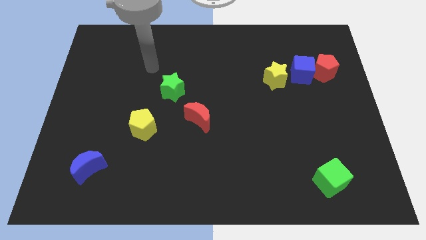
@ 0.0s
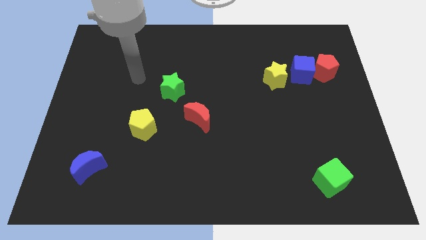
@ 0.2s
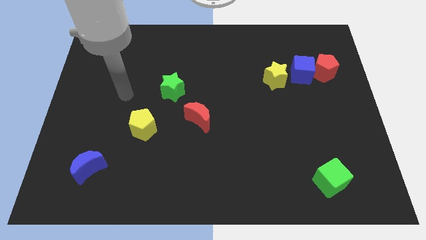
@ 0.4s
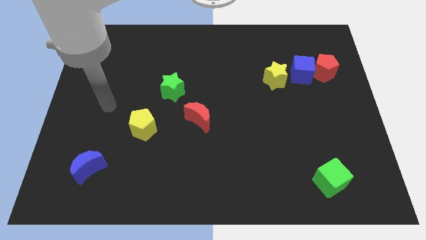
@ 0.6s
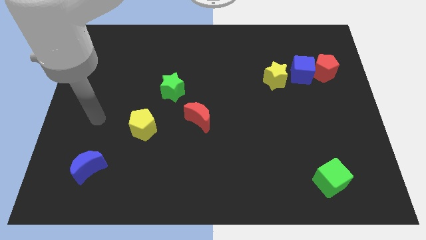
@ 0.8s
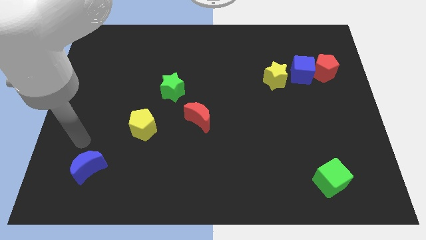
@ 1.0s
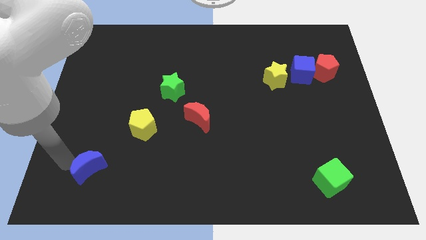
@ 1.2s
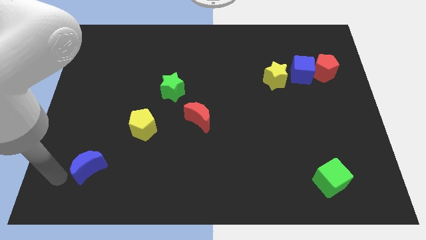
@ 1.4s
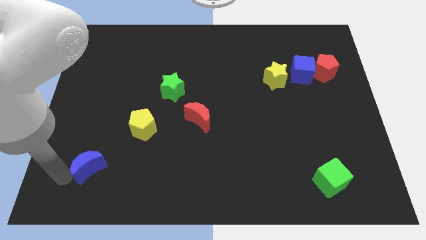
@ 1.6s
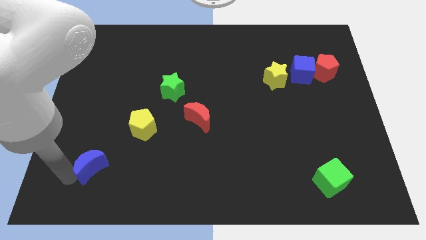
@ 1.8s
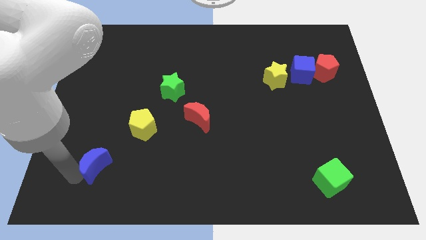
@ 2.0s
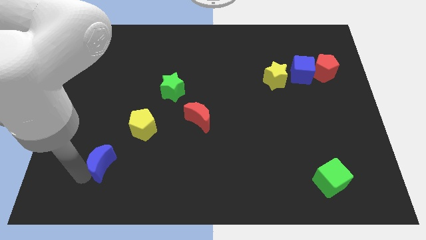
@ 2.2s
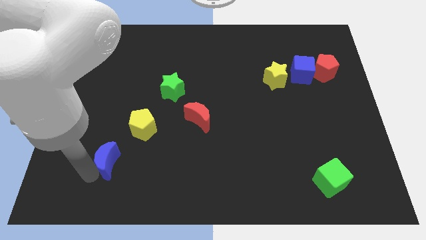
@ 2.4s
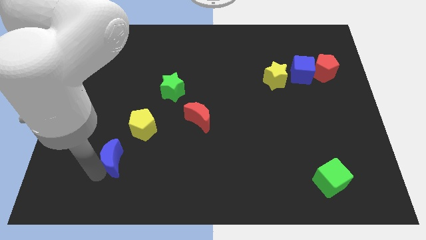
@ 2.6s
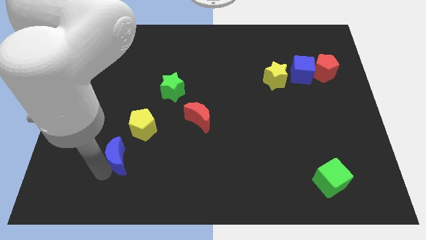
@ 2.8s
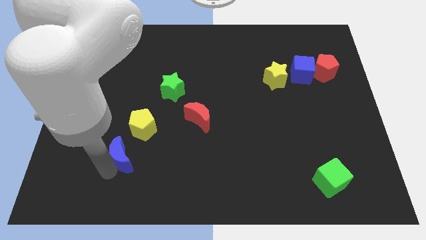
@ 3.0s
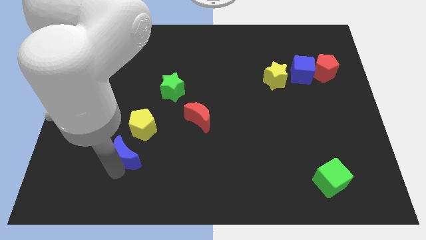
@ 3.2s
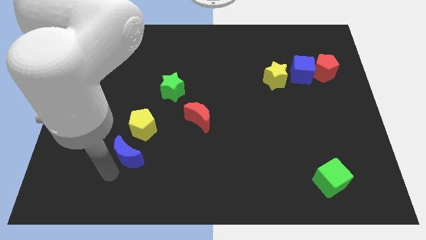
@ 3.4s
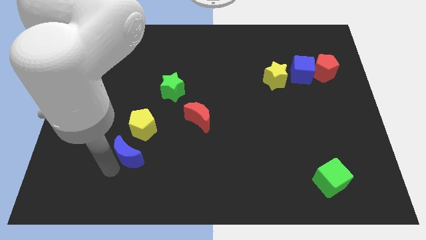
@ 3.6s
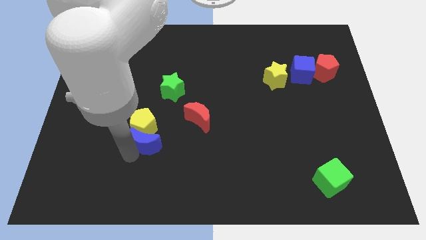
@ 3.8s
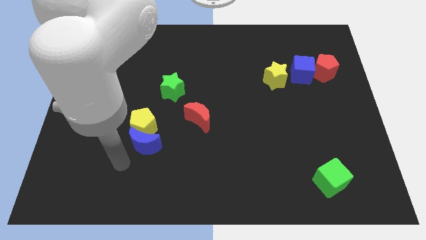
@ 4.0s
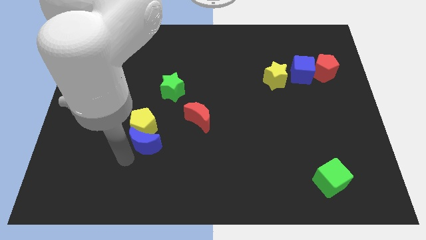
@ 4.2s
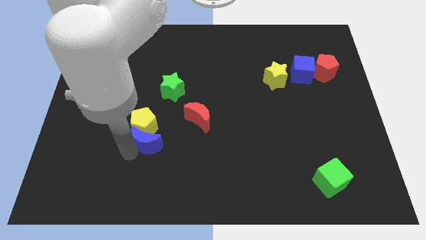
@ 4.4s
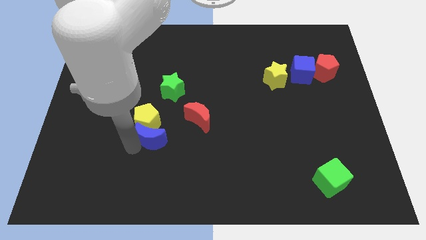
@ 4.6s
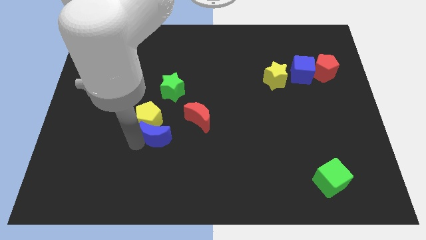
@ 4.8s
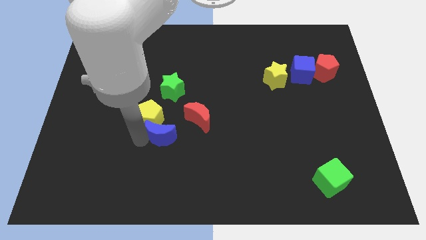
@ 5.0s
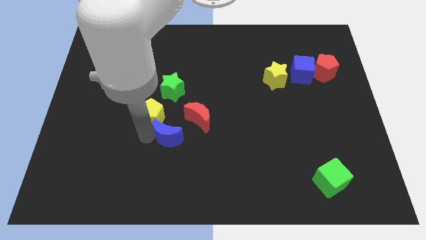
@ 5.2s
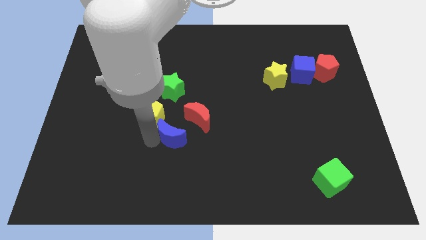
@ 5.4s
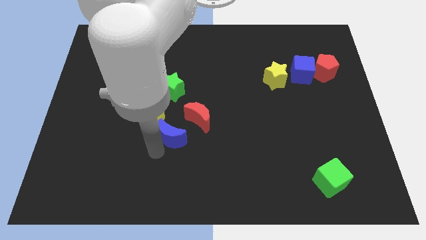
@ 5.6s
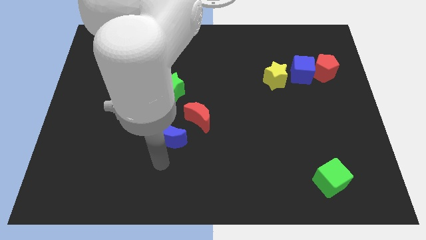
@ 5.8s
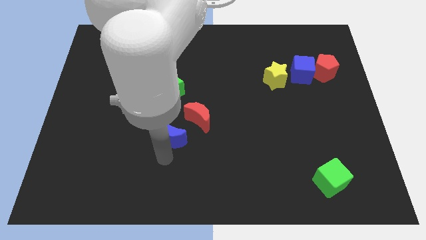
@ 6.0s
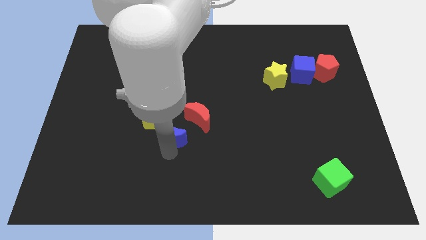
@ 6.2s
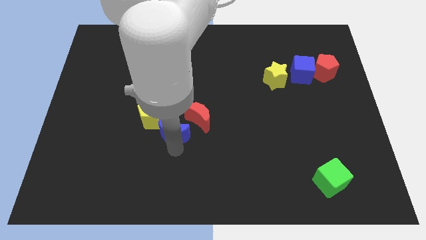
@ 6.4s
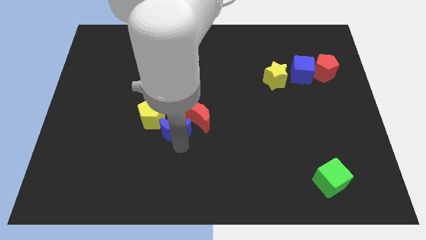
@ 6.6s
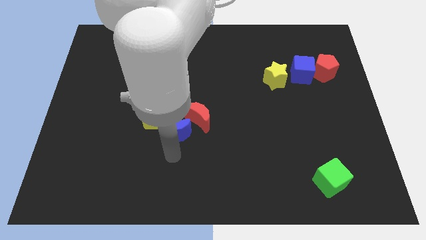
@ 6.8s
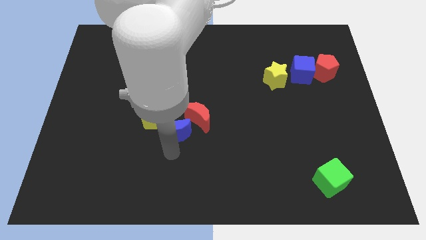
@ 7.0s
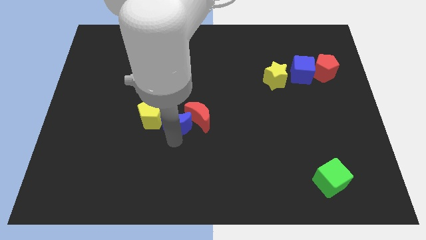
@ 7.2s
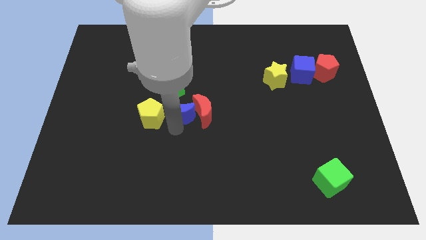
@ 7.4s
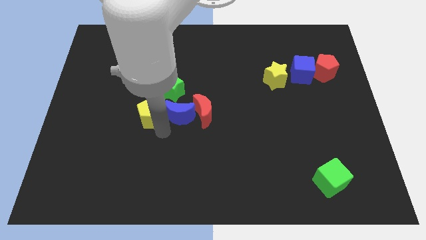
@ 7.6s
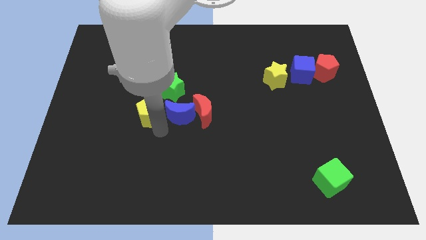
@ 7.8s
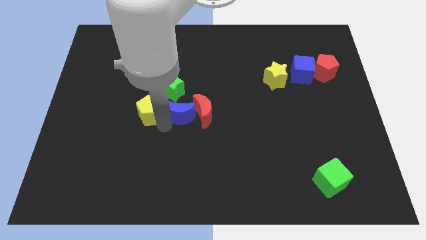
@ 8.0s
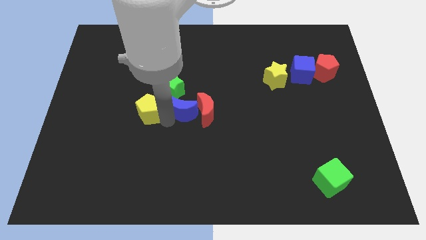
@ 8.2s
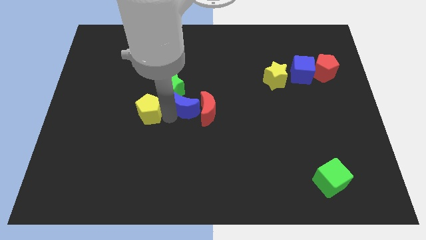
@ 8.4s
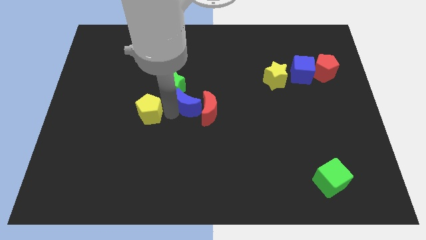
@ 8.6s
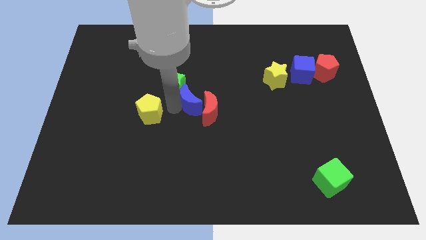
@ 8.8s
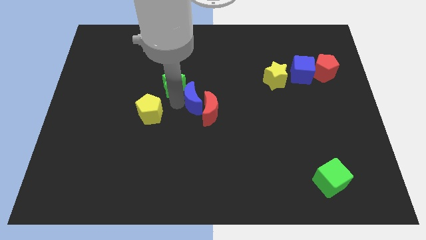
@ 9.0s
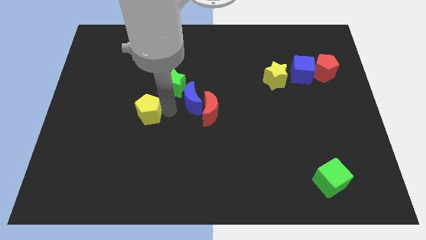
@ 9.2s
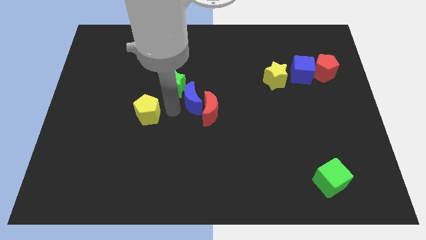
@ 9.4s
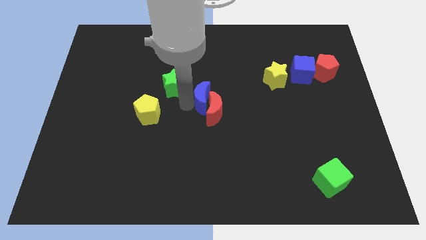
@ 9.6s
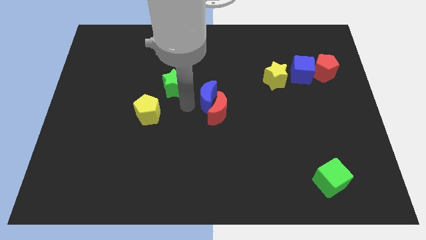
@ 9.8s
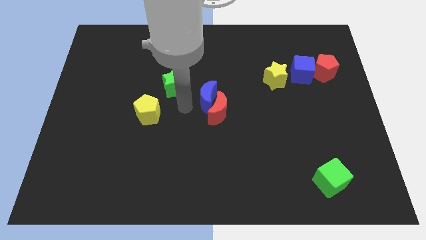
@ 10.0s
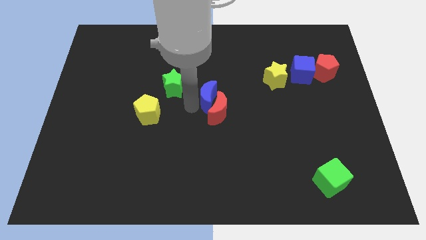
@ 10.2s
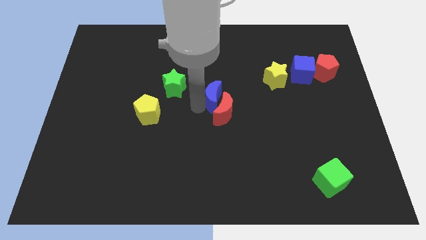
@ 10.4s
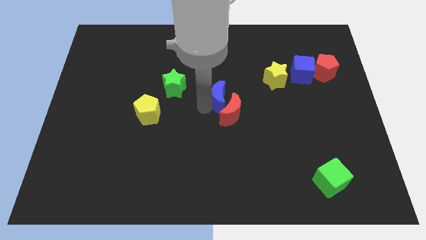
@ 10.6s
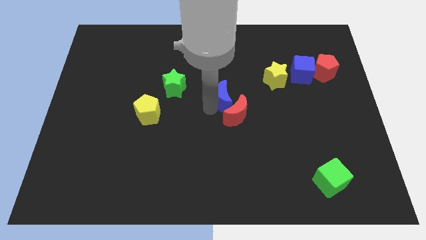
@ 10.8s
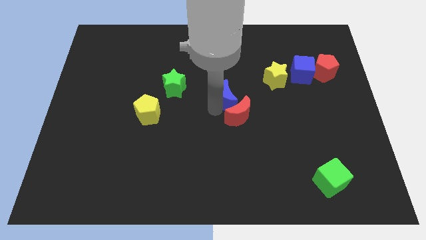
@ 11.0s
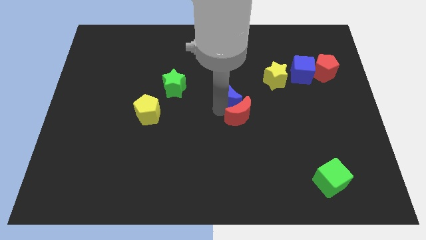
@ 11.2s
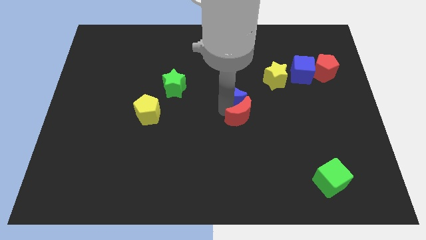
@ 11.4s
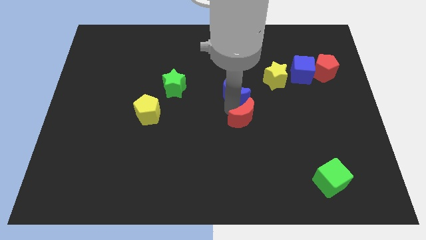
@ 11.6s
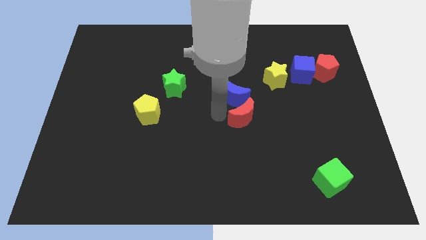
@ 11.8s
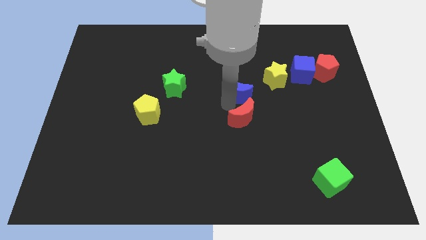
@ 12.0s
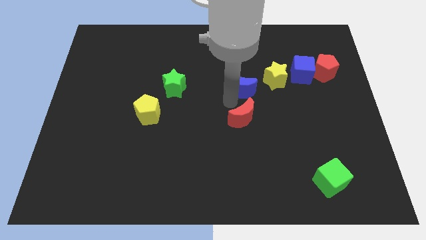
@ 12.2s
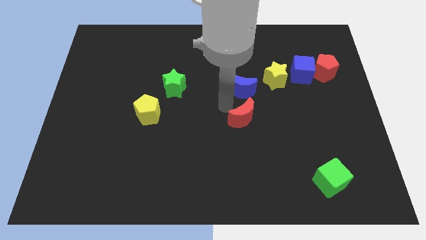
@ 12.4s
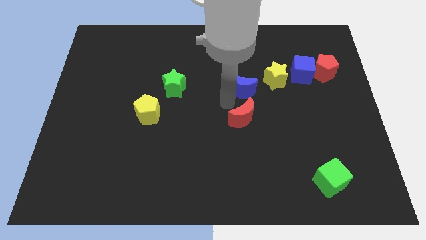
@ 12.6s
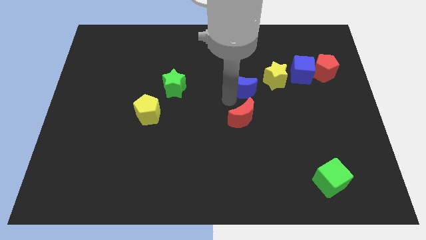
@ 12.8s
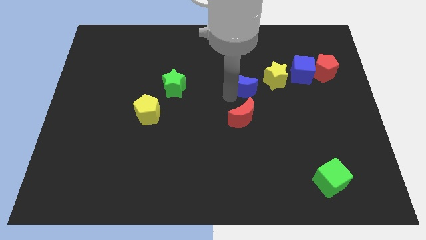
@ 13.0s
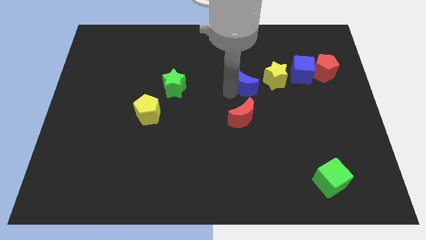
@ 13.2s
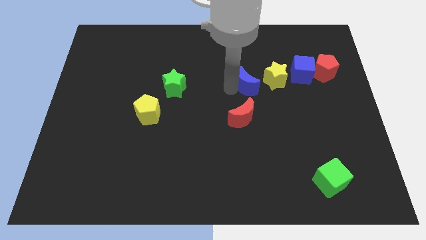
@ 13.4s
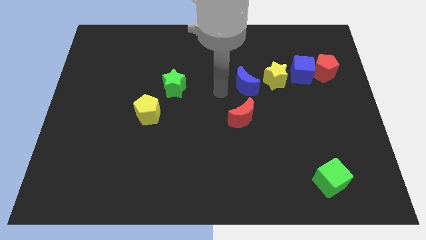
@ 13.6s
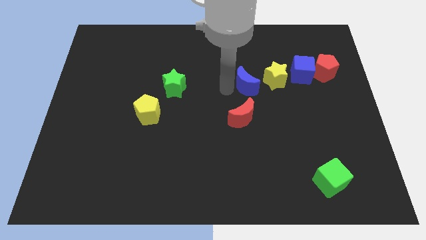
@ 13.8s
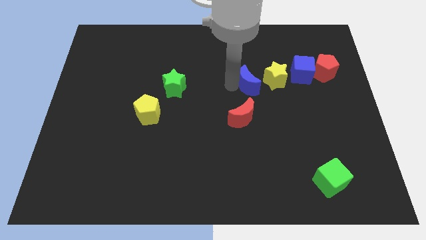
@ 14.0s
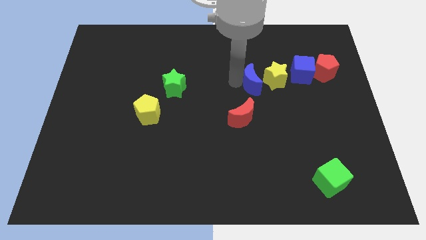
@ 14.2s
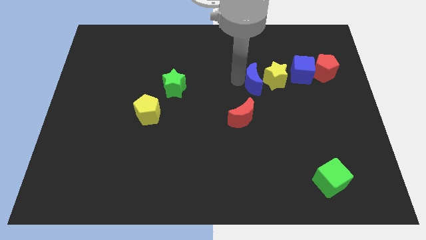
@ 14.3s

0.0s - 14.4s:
slide the blue moon close to the yellow star

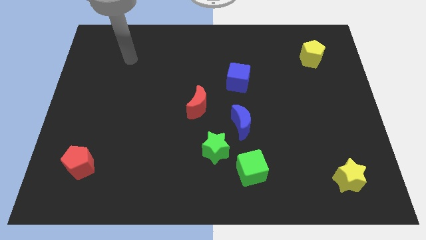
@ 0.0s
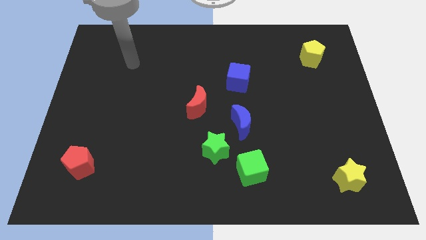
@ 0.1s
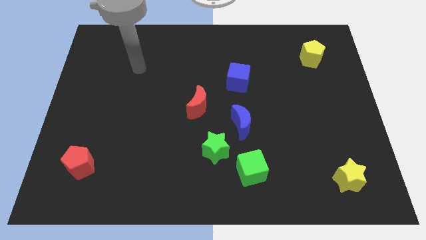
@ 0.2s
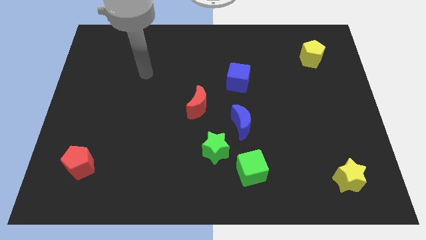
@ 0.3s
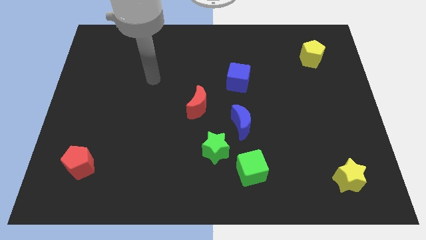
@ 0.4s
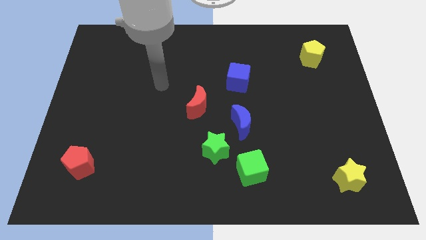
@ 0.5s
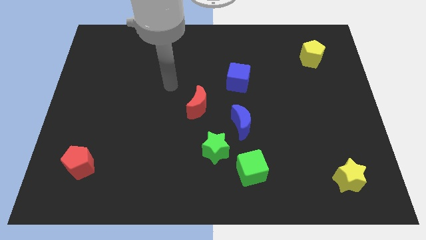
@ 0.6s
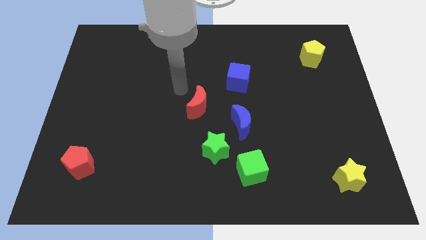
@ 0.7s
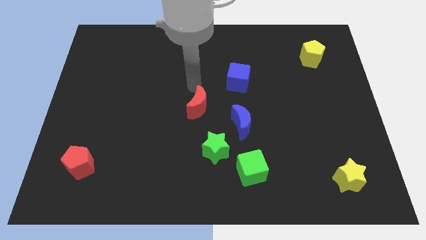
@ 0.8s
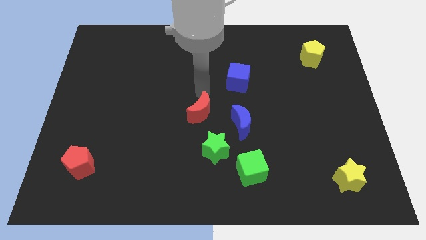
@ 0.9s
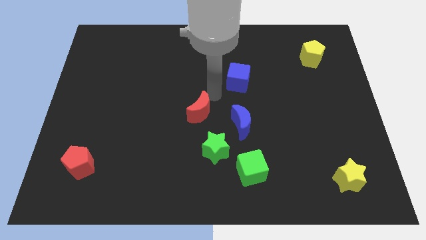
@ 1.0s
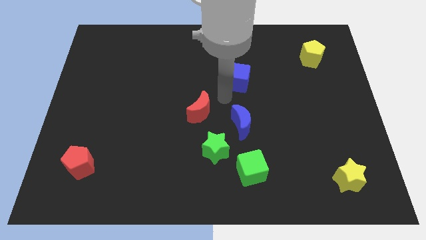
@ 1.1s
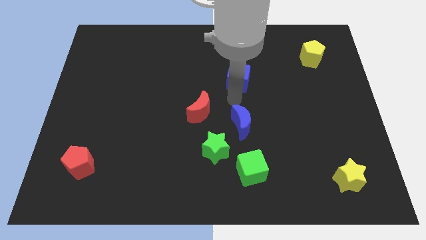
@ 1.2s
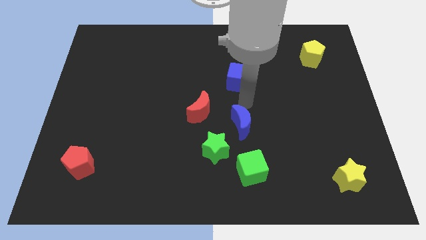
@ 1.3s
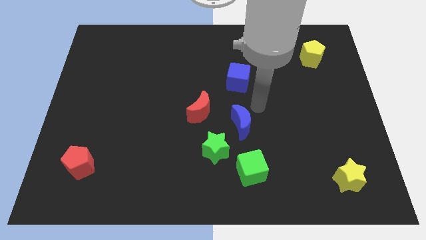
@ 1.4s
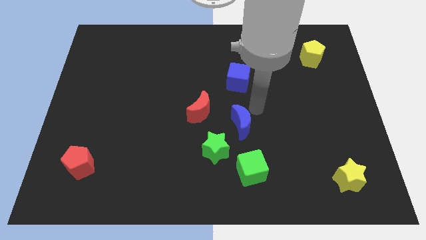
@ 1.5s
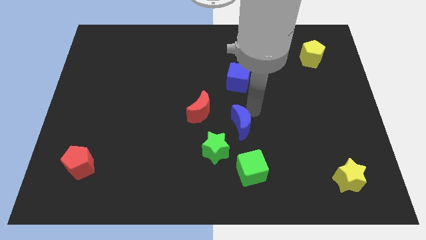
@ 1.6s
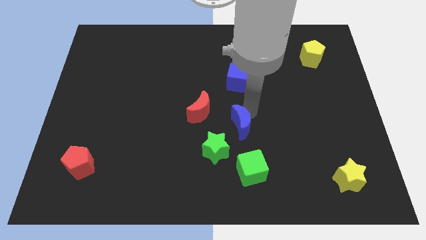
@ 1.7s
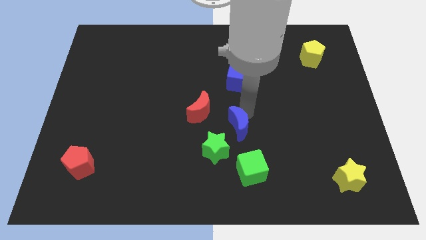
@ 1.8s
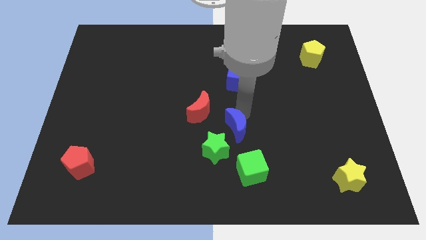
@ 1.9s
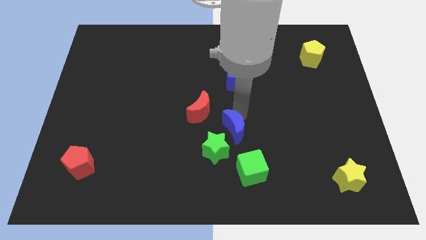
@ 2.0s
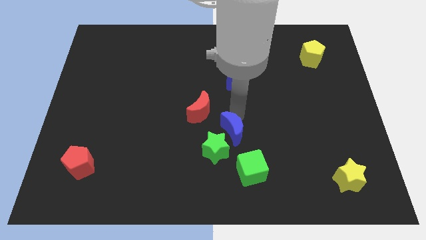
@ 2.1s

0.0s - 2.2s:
slide the blue moon towards the green star
